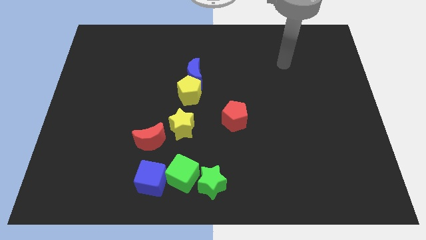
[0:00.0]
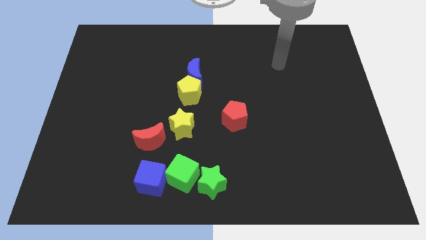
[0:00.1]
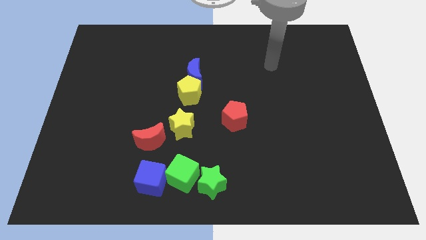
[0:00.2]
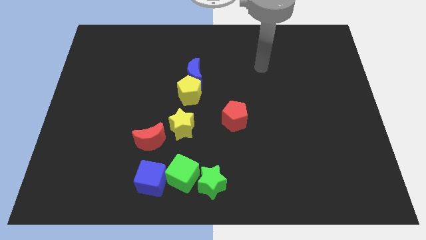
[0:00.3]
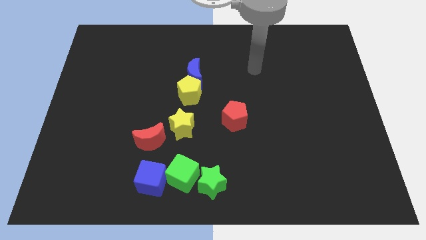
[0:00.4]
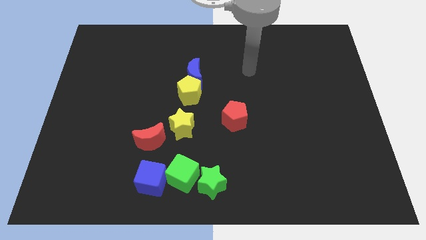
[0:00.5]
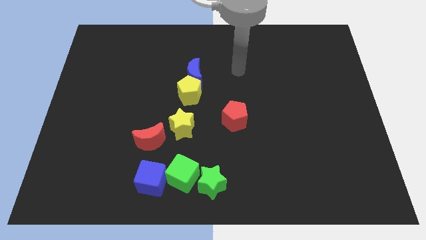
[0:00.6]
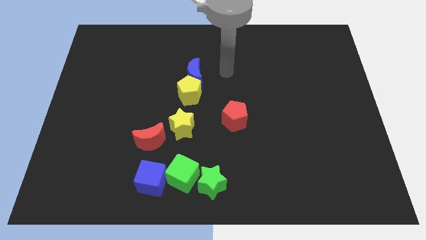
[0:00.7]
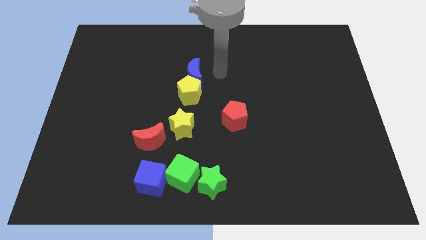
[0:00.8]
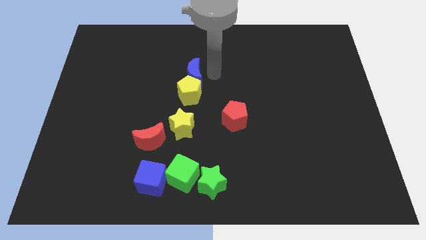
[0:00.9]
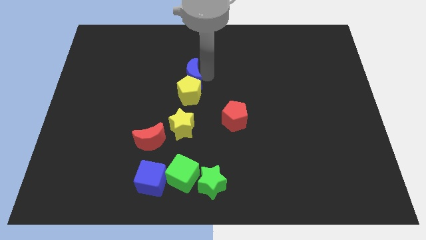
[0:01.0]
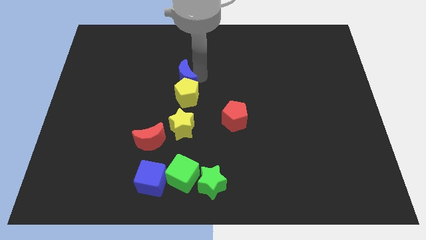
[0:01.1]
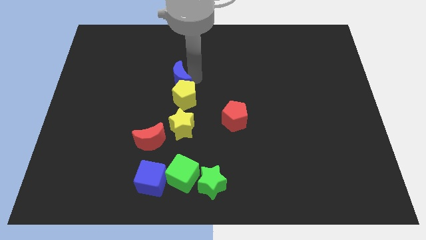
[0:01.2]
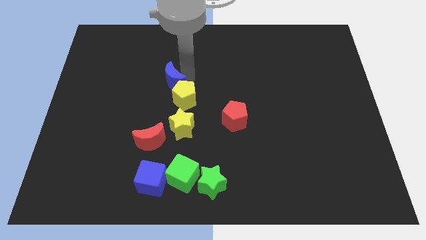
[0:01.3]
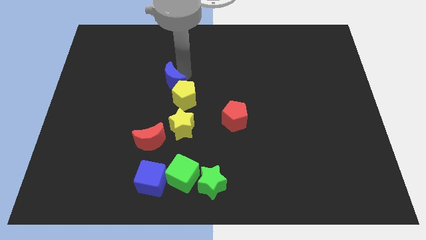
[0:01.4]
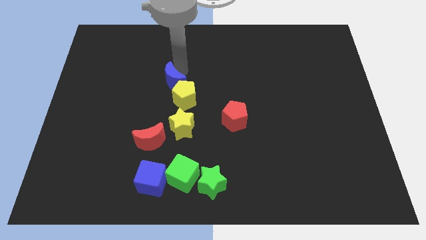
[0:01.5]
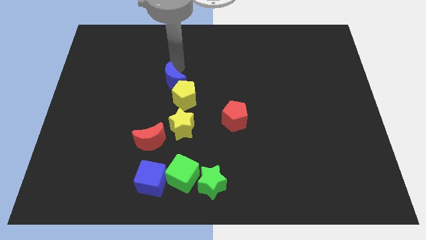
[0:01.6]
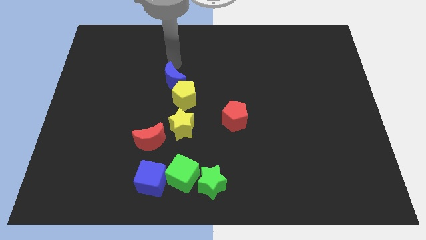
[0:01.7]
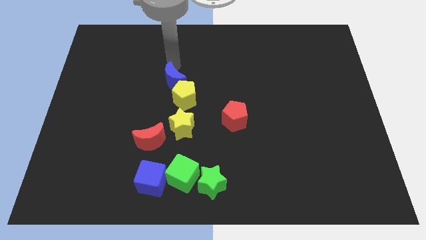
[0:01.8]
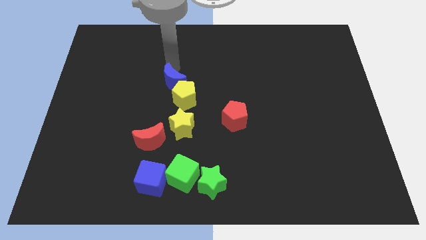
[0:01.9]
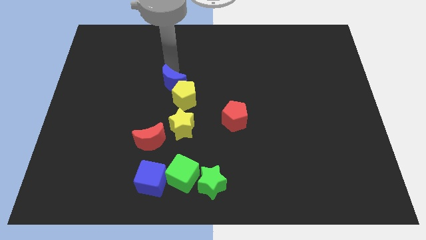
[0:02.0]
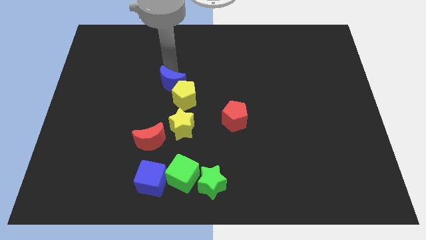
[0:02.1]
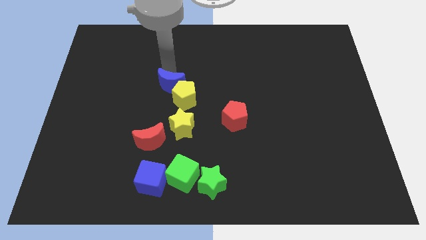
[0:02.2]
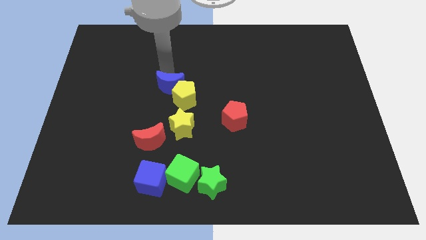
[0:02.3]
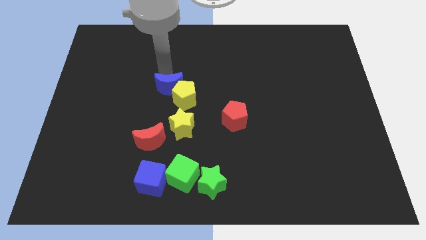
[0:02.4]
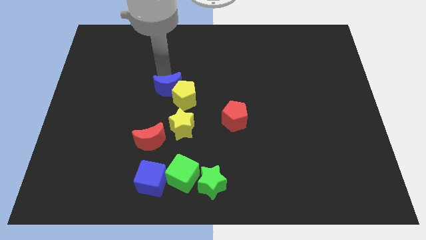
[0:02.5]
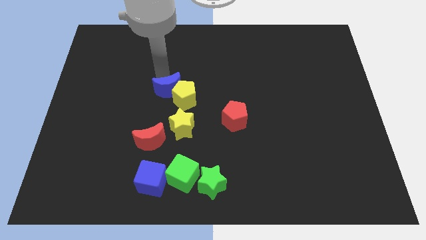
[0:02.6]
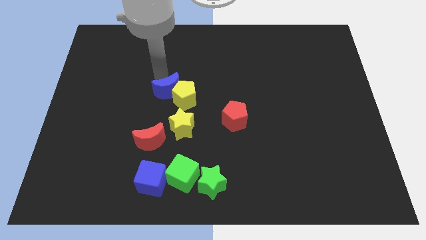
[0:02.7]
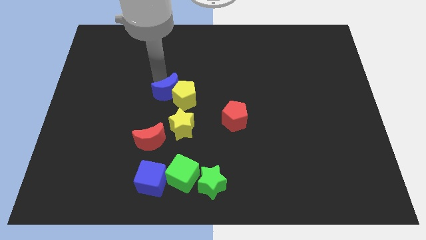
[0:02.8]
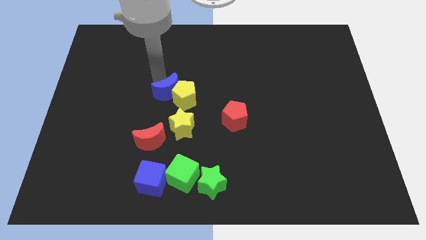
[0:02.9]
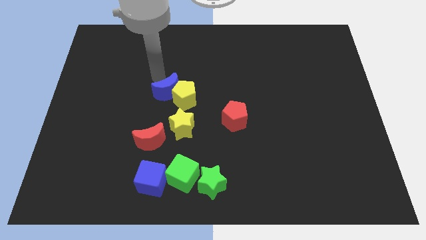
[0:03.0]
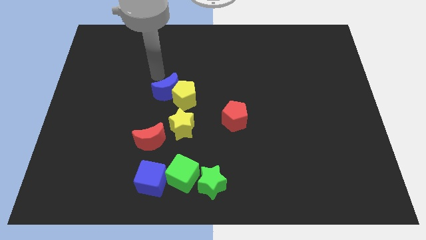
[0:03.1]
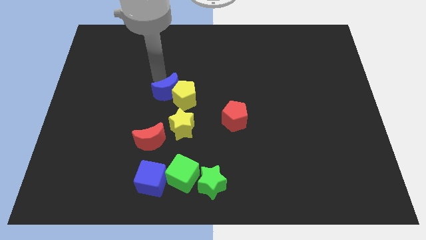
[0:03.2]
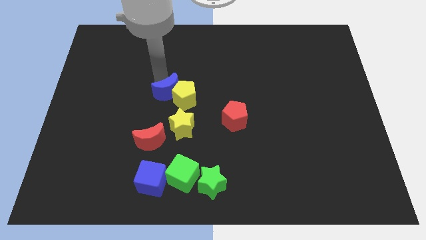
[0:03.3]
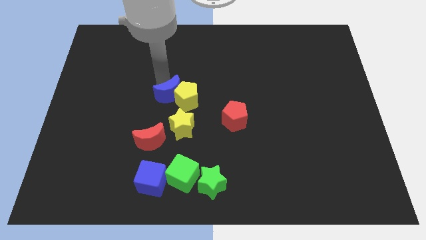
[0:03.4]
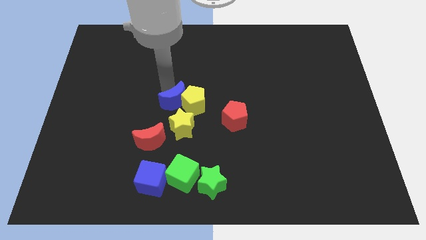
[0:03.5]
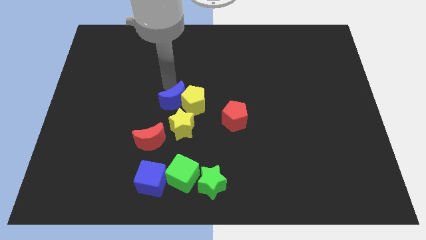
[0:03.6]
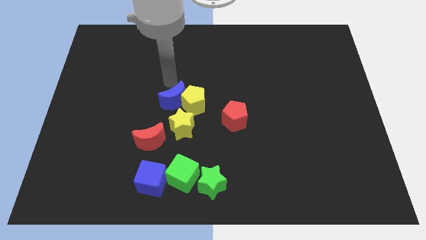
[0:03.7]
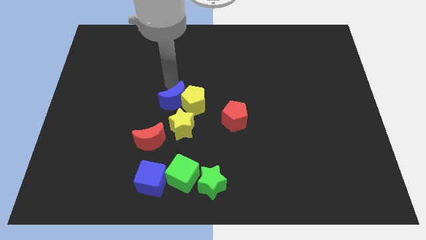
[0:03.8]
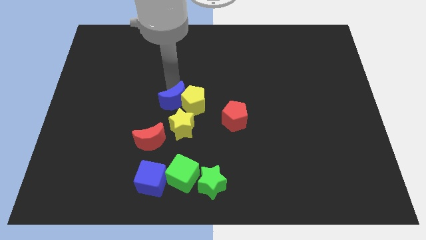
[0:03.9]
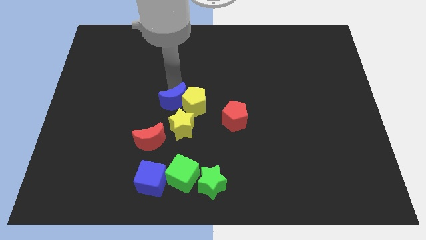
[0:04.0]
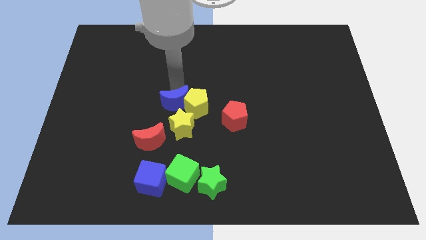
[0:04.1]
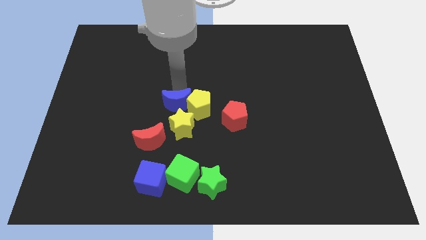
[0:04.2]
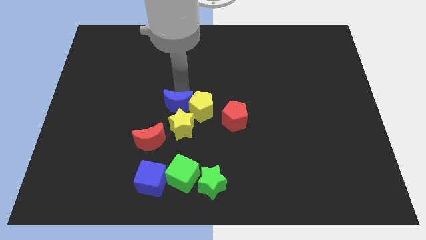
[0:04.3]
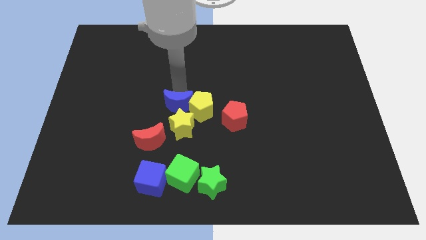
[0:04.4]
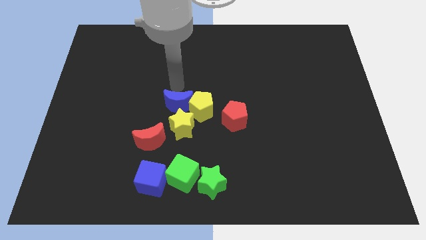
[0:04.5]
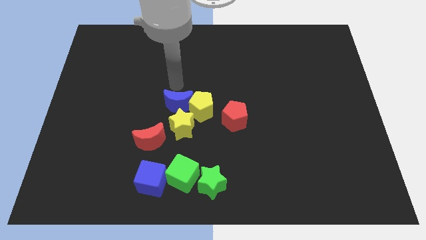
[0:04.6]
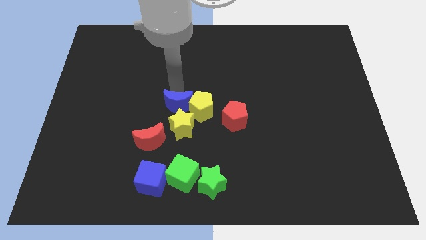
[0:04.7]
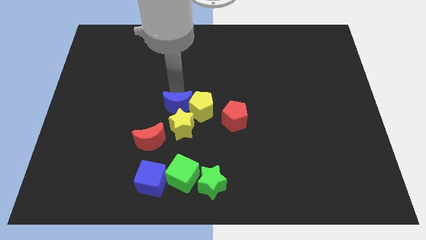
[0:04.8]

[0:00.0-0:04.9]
move the blue moon to the yellow star

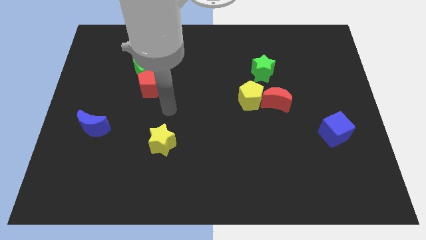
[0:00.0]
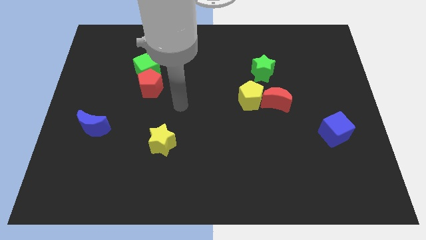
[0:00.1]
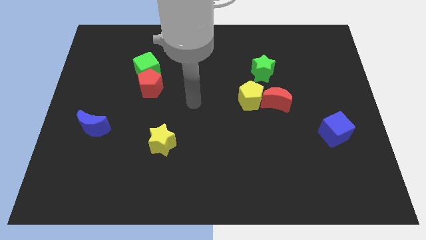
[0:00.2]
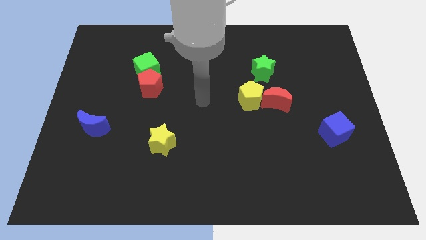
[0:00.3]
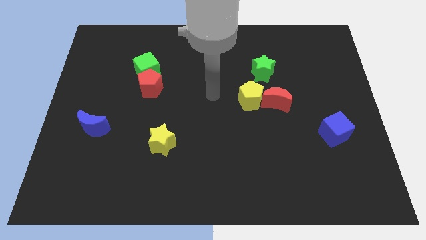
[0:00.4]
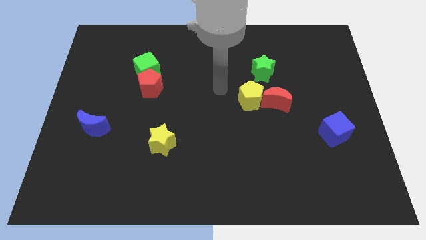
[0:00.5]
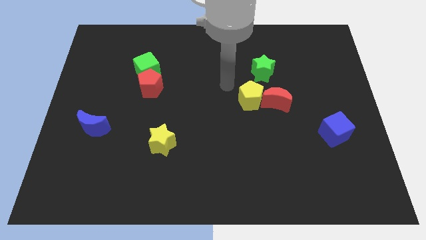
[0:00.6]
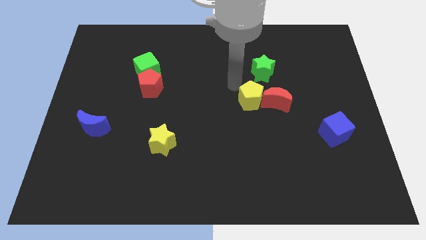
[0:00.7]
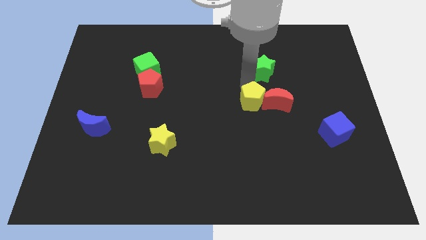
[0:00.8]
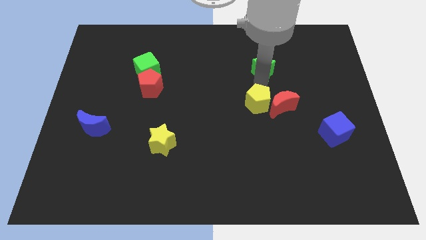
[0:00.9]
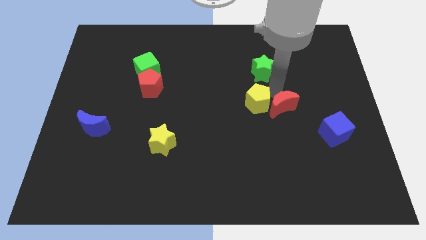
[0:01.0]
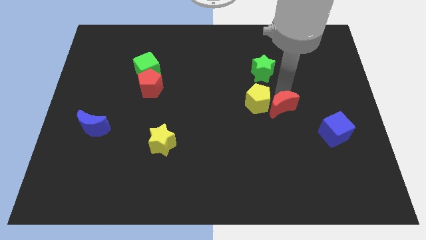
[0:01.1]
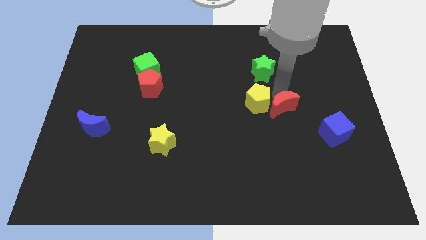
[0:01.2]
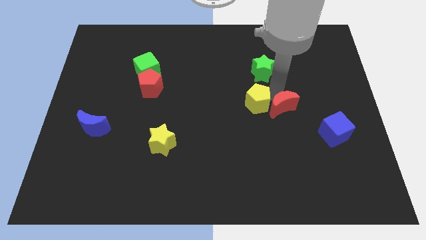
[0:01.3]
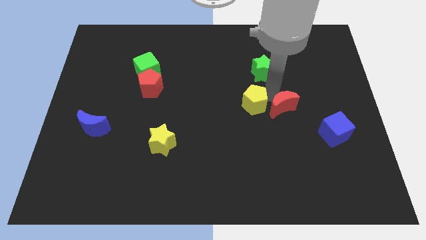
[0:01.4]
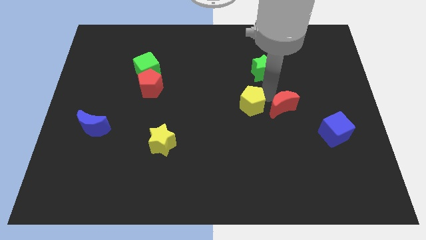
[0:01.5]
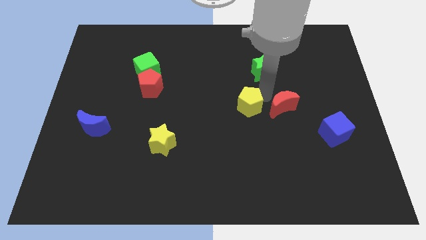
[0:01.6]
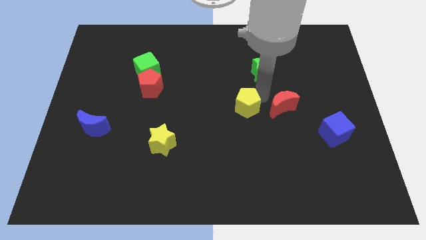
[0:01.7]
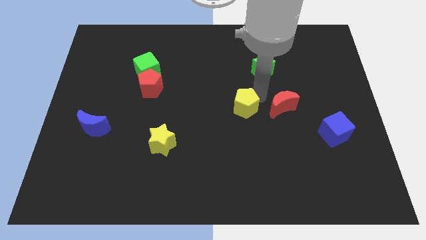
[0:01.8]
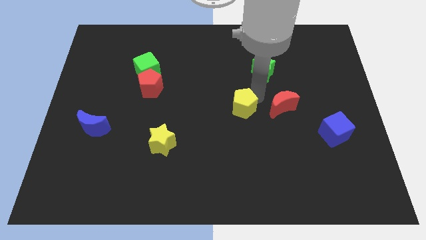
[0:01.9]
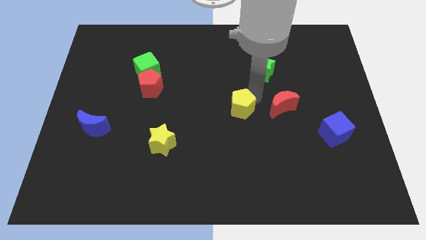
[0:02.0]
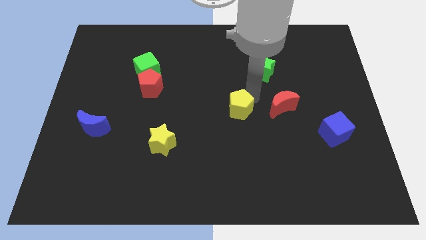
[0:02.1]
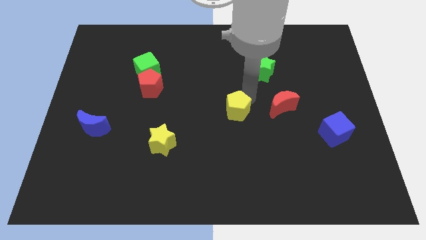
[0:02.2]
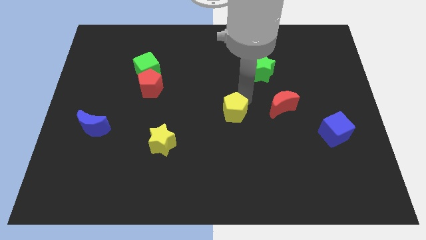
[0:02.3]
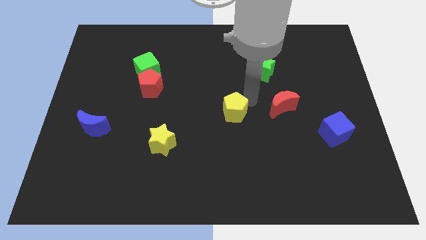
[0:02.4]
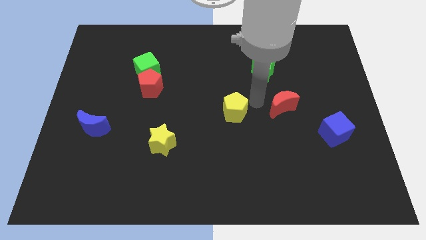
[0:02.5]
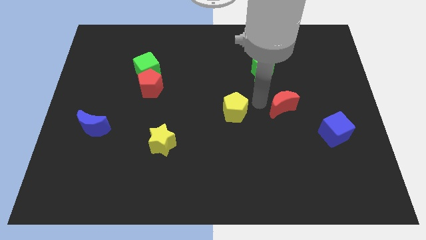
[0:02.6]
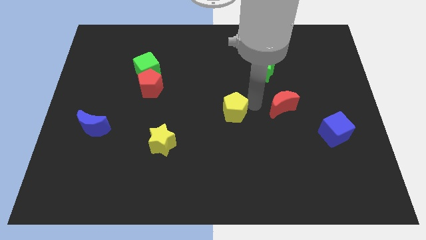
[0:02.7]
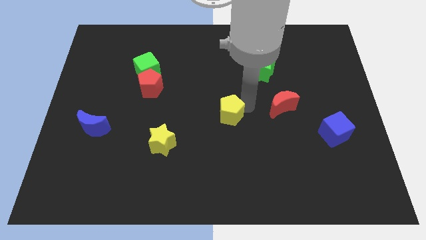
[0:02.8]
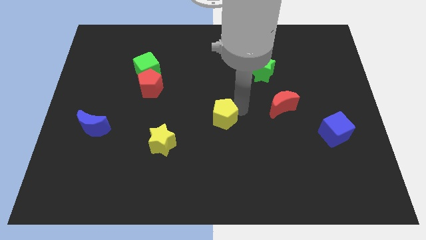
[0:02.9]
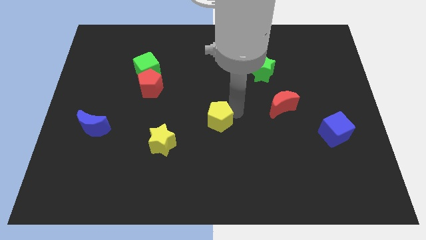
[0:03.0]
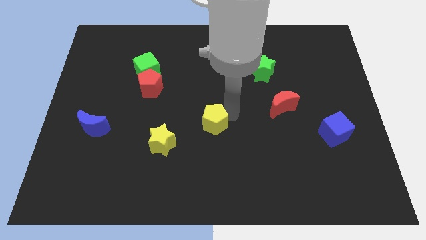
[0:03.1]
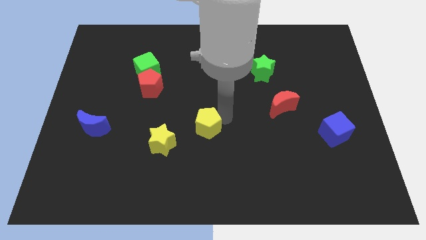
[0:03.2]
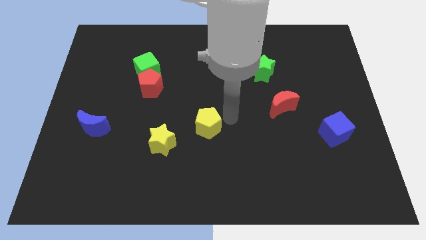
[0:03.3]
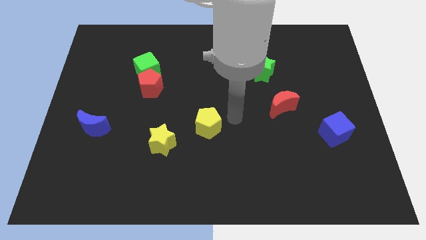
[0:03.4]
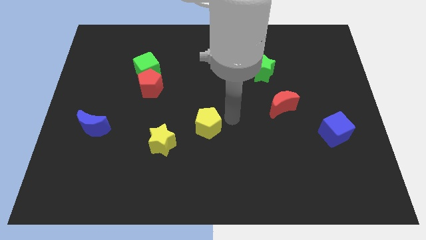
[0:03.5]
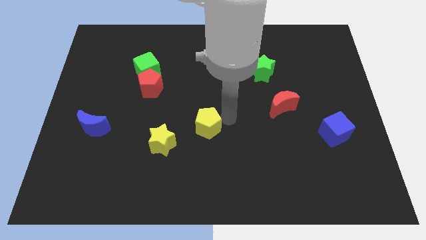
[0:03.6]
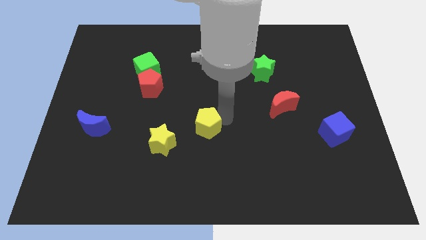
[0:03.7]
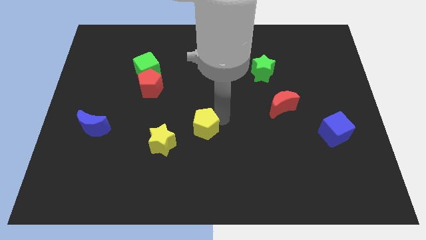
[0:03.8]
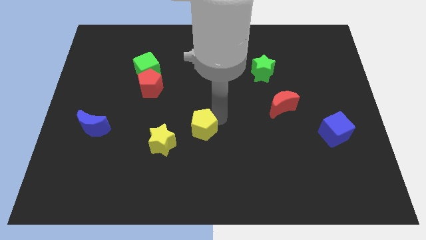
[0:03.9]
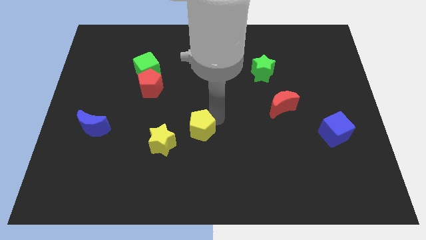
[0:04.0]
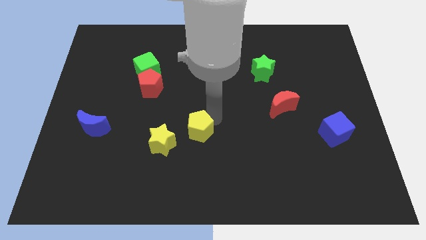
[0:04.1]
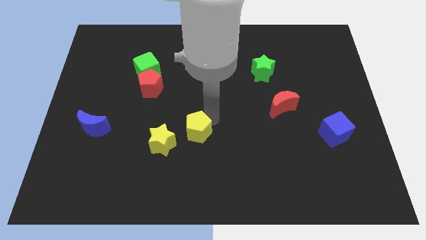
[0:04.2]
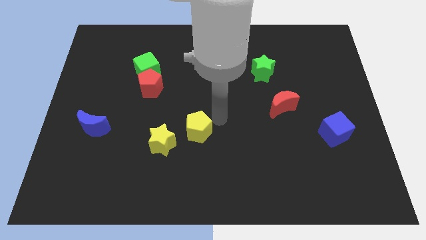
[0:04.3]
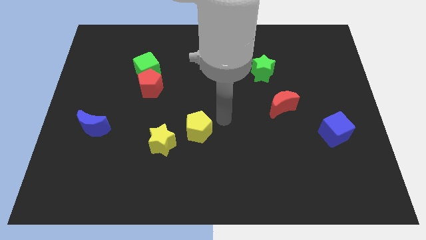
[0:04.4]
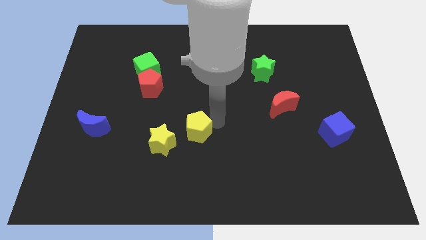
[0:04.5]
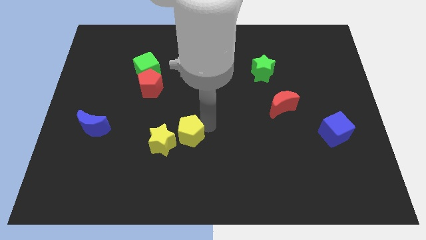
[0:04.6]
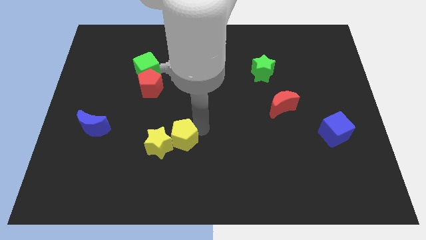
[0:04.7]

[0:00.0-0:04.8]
put the yellow pentagon next to the yellow star
